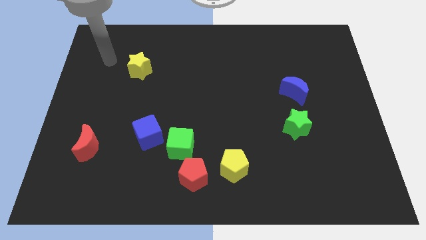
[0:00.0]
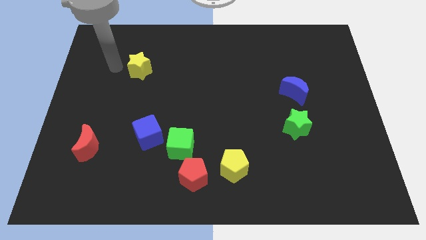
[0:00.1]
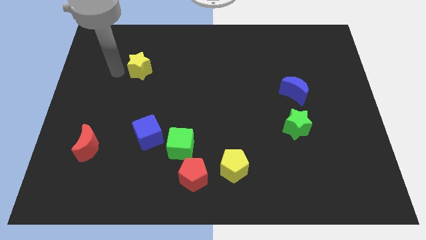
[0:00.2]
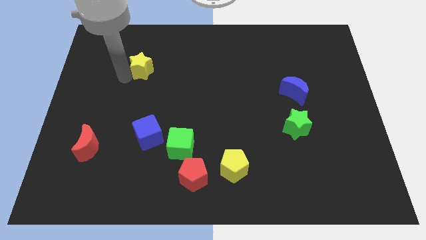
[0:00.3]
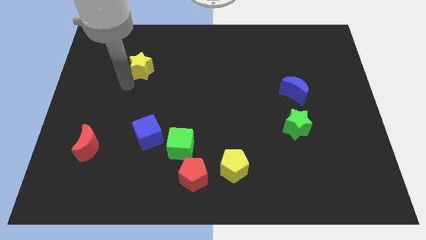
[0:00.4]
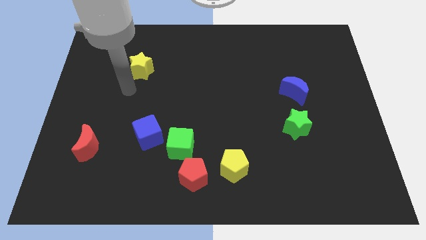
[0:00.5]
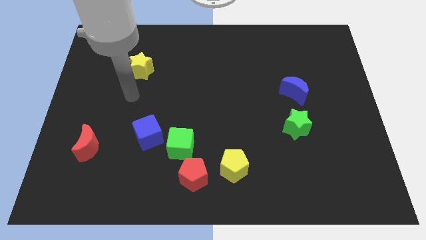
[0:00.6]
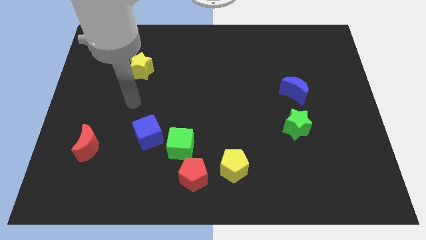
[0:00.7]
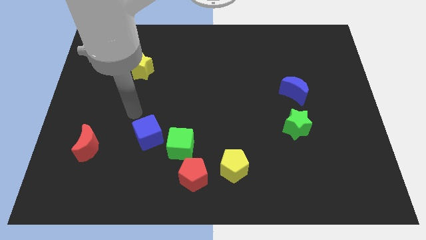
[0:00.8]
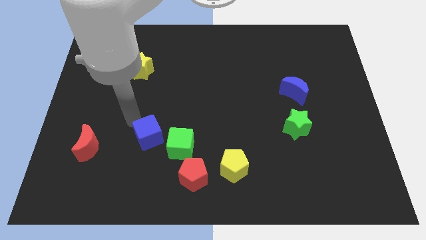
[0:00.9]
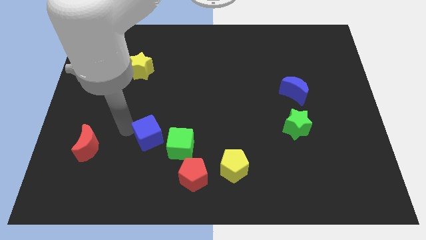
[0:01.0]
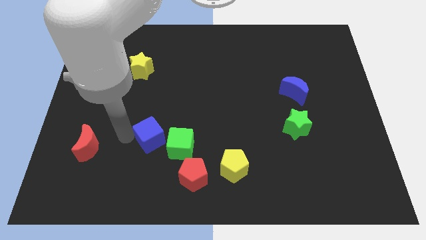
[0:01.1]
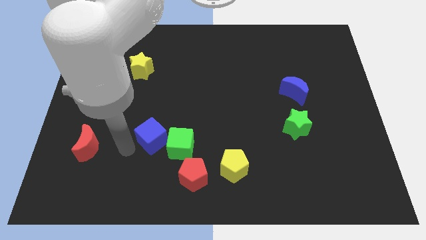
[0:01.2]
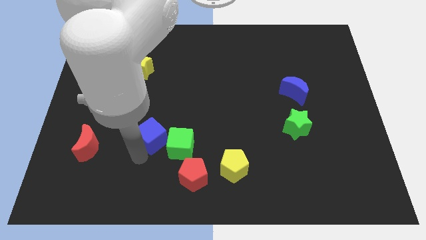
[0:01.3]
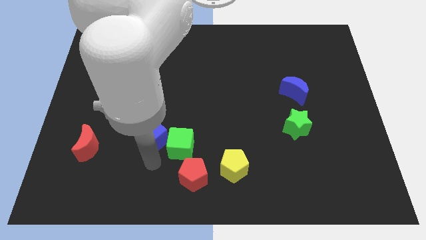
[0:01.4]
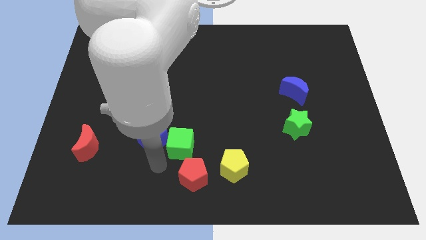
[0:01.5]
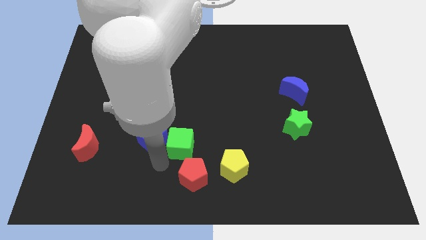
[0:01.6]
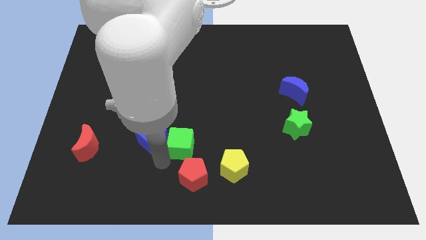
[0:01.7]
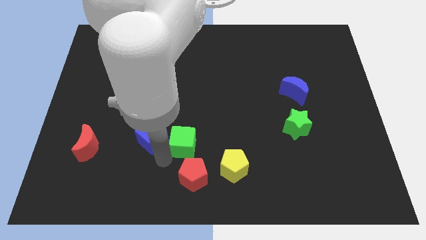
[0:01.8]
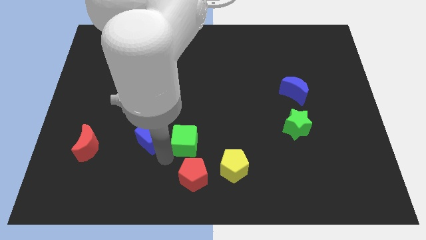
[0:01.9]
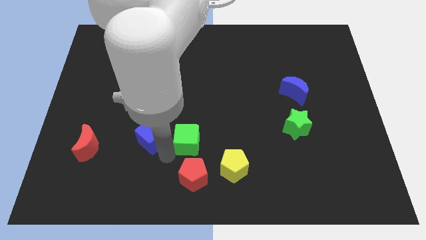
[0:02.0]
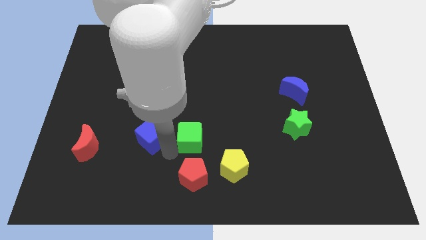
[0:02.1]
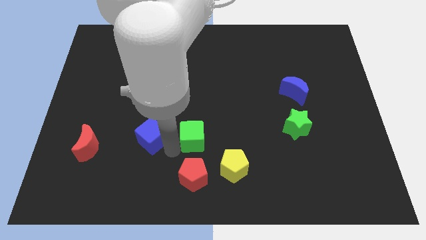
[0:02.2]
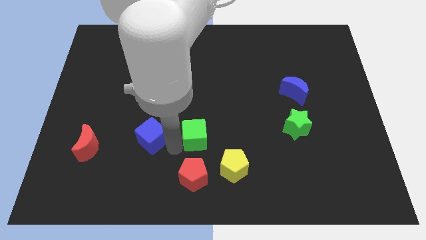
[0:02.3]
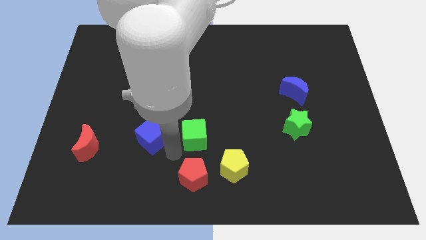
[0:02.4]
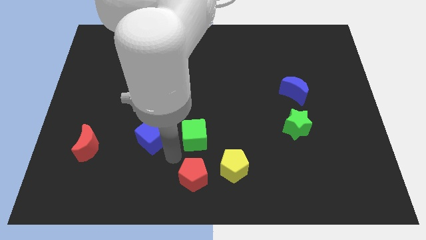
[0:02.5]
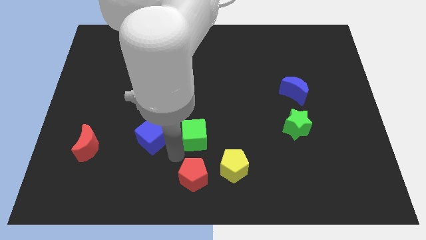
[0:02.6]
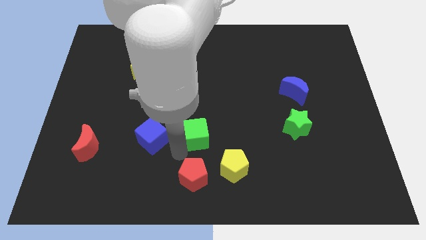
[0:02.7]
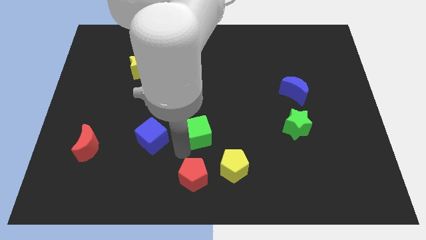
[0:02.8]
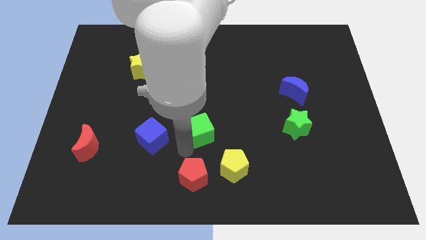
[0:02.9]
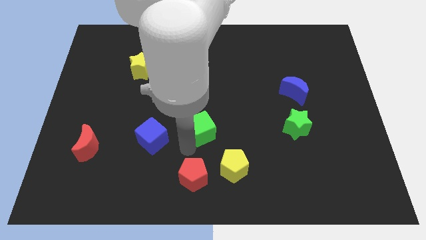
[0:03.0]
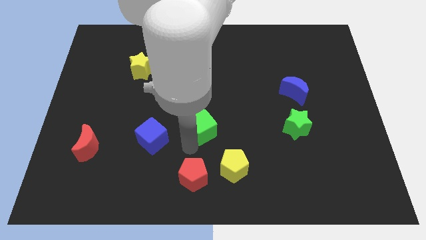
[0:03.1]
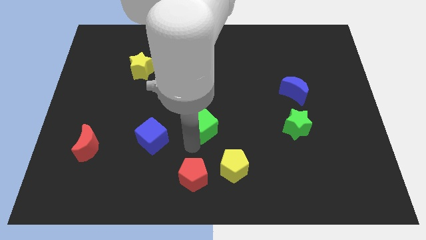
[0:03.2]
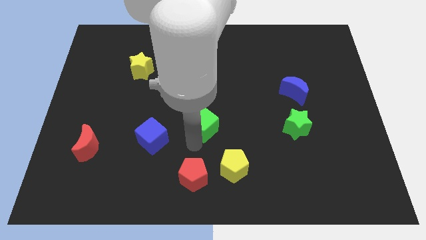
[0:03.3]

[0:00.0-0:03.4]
pull the green cube apart from the red pentagon and blue cube

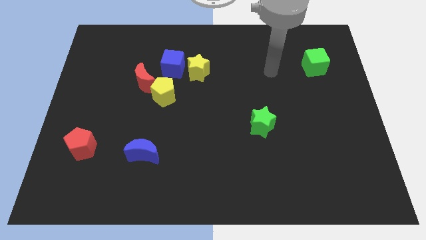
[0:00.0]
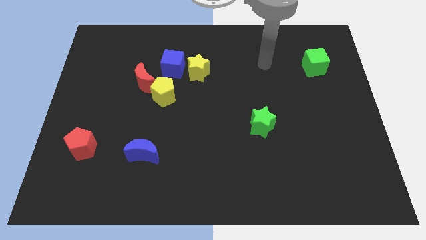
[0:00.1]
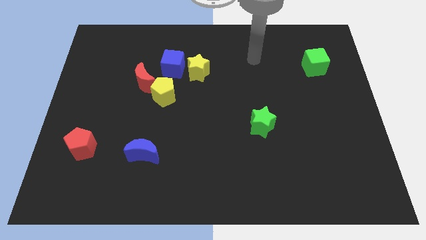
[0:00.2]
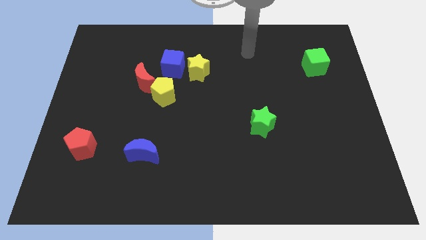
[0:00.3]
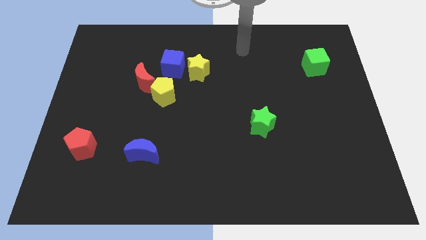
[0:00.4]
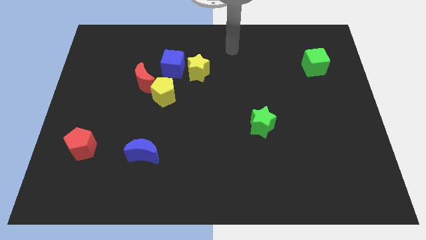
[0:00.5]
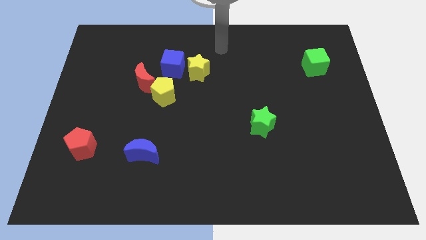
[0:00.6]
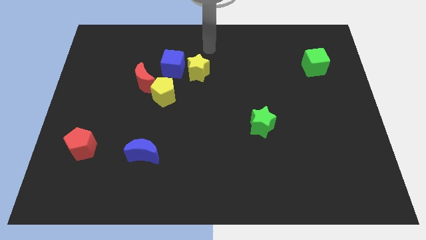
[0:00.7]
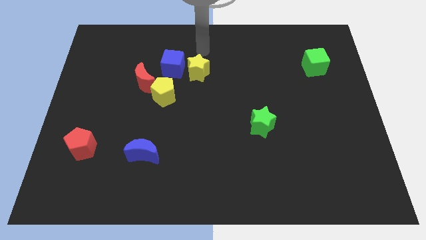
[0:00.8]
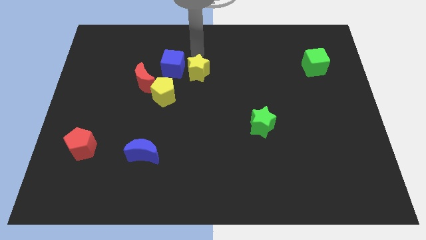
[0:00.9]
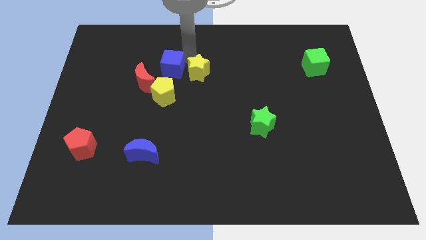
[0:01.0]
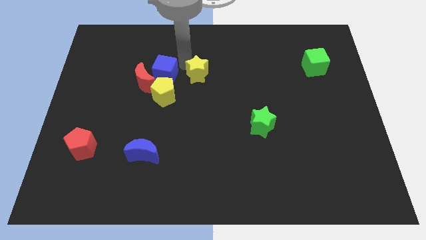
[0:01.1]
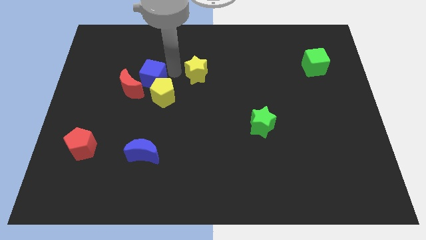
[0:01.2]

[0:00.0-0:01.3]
separate the yellow star from the blue cube

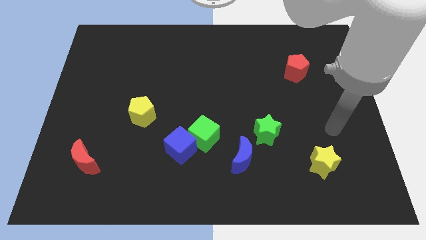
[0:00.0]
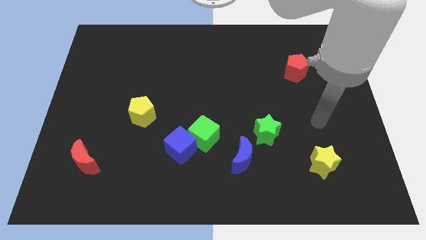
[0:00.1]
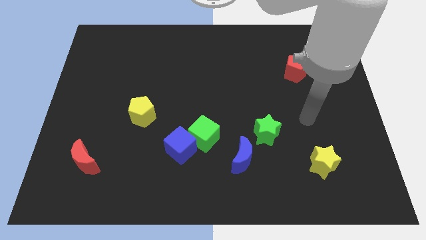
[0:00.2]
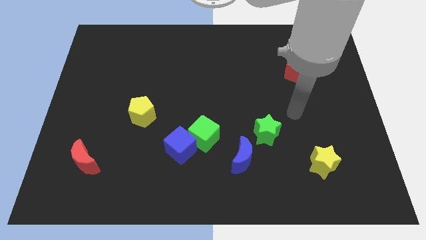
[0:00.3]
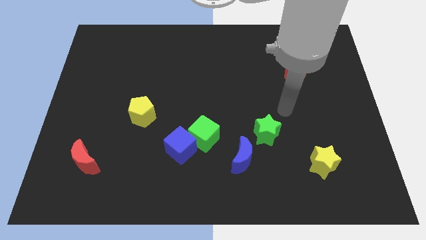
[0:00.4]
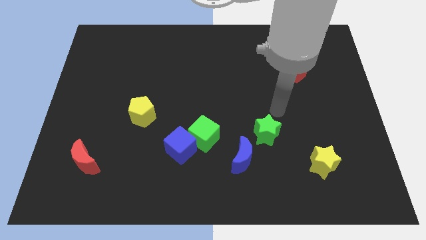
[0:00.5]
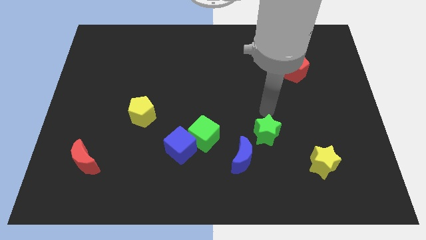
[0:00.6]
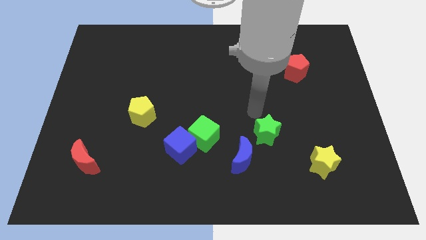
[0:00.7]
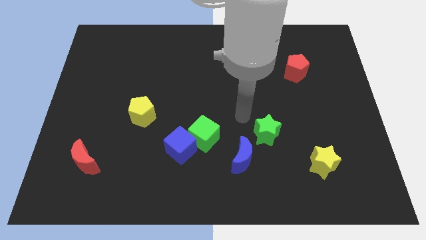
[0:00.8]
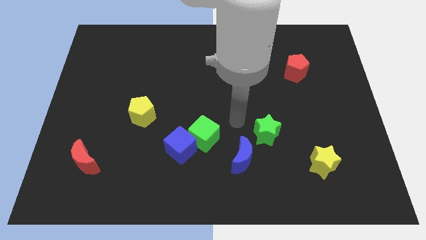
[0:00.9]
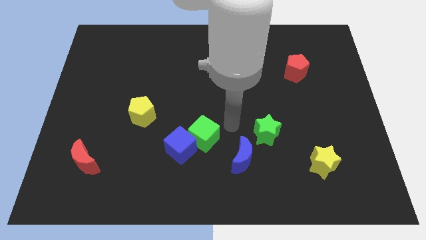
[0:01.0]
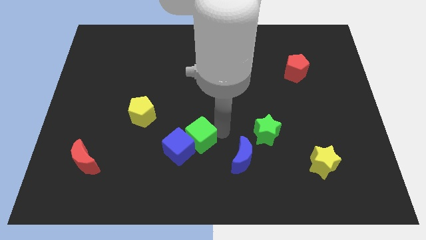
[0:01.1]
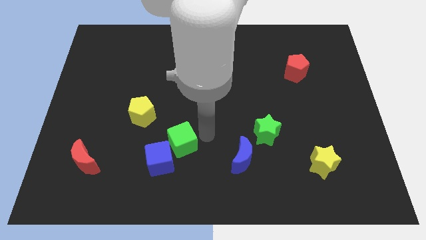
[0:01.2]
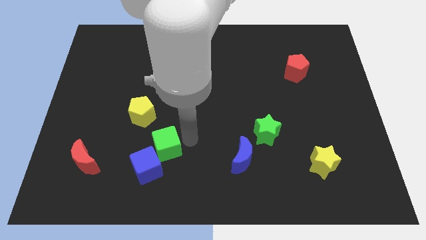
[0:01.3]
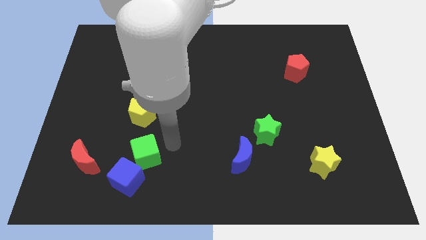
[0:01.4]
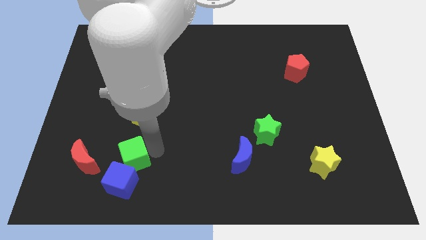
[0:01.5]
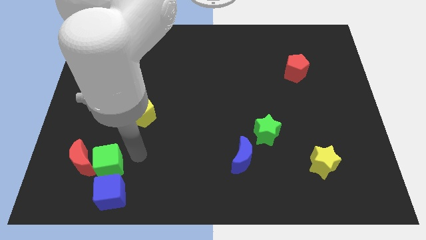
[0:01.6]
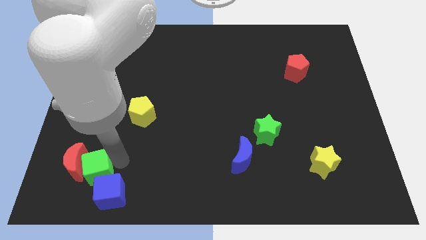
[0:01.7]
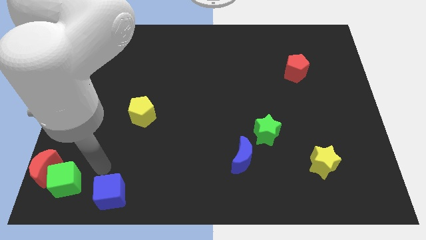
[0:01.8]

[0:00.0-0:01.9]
pull the blue cube apart from the green cube

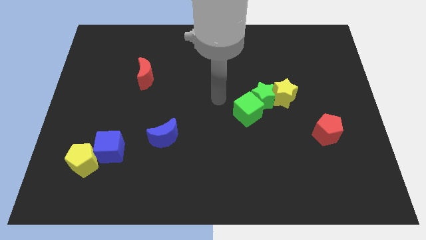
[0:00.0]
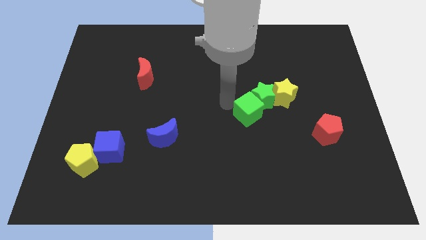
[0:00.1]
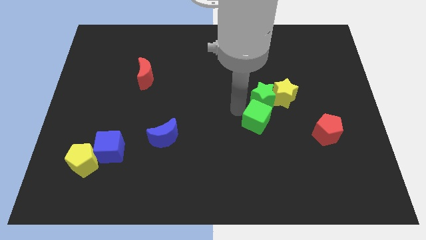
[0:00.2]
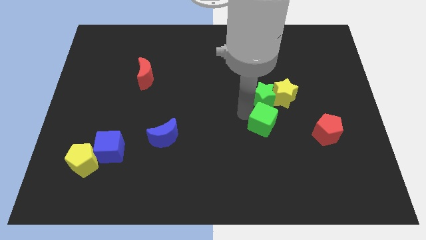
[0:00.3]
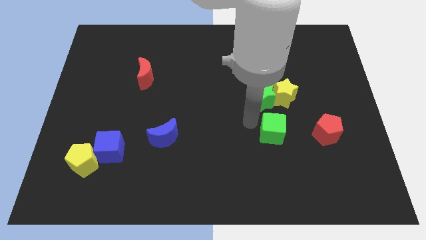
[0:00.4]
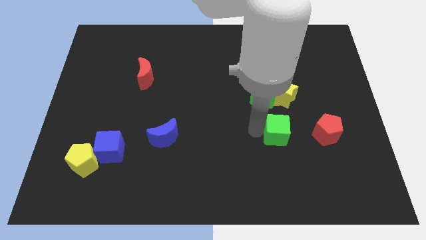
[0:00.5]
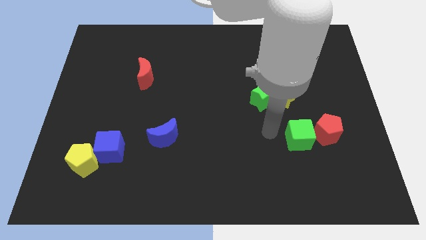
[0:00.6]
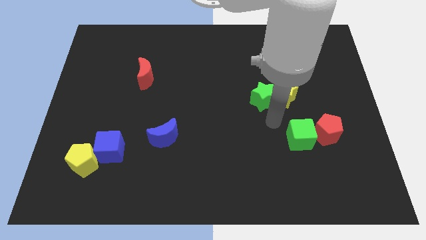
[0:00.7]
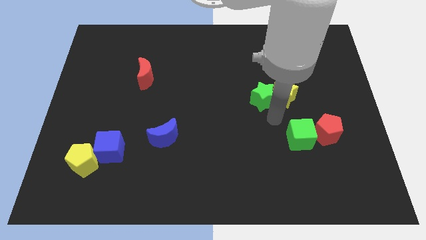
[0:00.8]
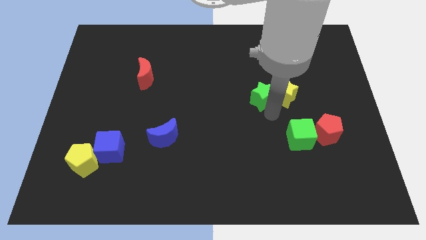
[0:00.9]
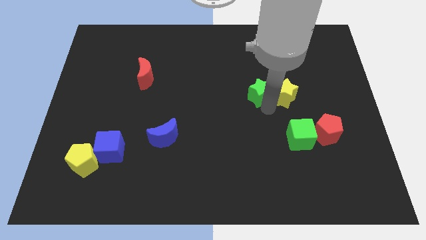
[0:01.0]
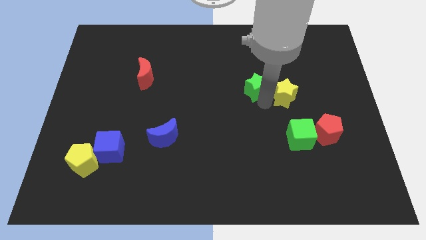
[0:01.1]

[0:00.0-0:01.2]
move the green star away from the yellow star and green cube

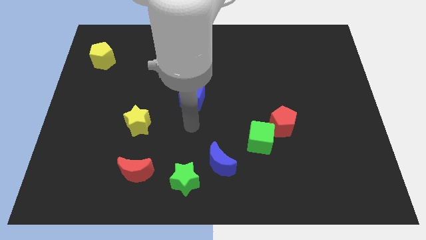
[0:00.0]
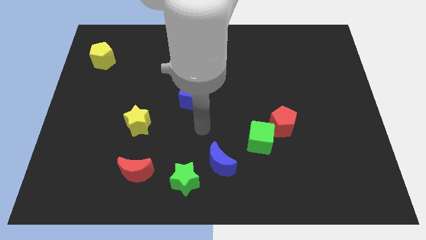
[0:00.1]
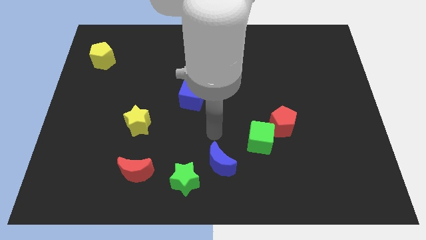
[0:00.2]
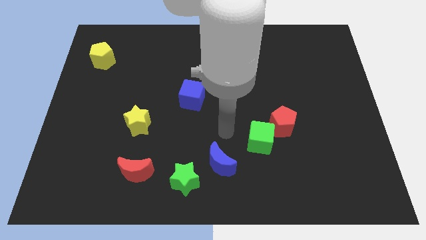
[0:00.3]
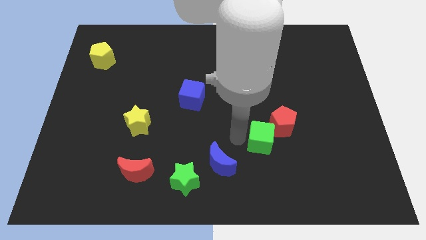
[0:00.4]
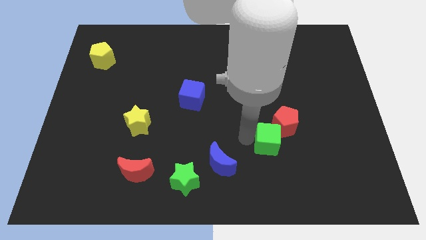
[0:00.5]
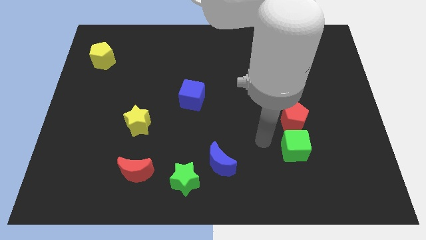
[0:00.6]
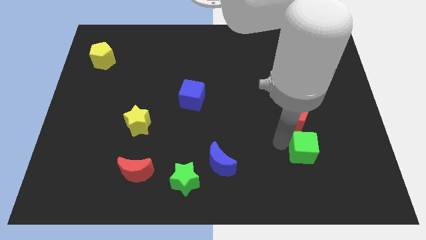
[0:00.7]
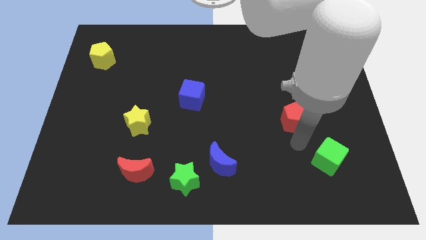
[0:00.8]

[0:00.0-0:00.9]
pull the red pentagon apart from the green cube

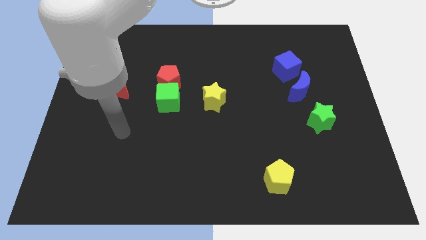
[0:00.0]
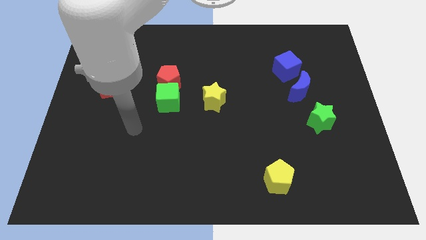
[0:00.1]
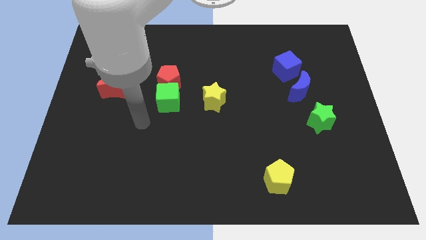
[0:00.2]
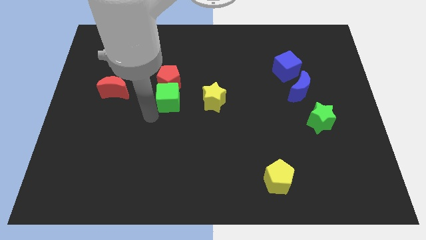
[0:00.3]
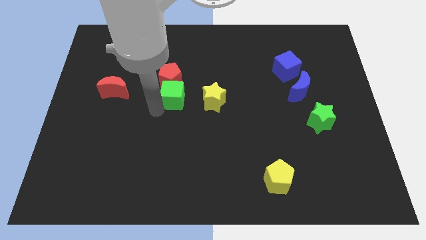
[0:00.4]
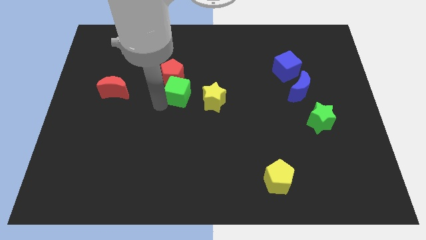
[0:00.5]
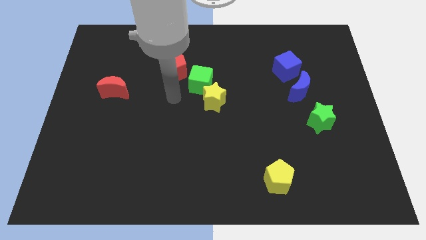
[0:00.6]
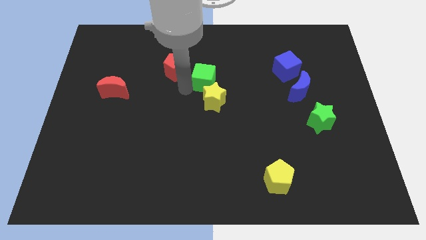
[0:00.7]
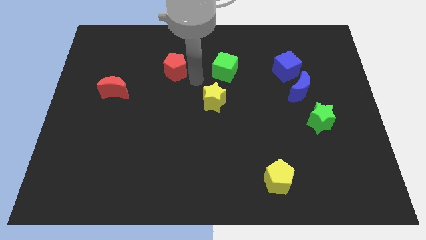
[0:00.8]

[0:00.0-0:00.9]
separate the red pentagon from the green cube
